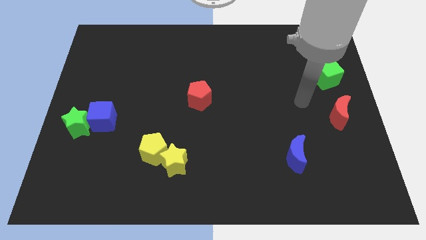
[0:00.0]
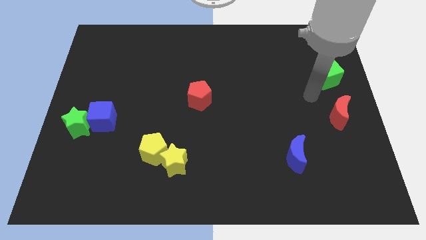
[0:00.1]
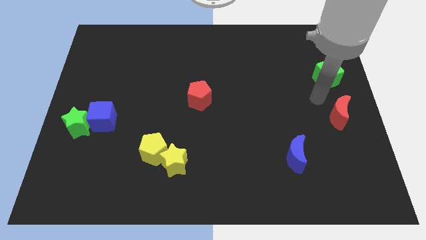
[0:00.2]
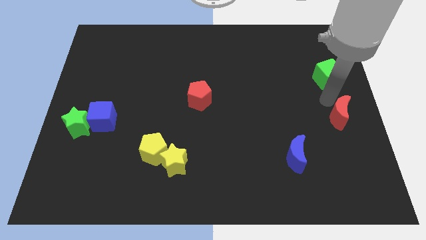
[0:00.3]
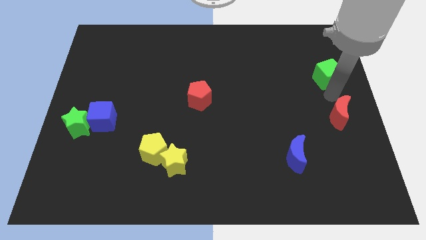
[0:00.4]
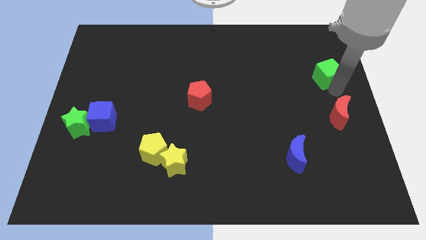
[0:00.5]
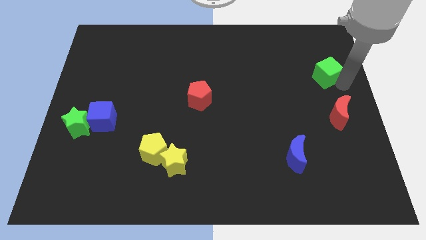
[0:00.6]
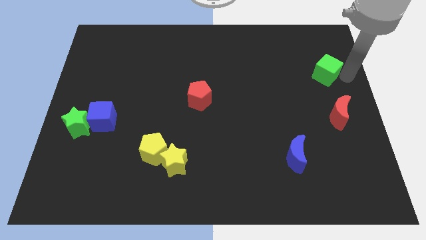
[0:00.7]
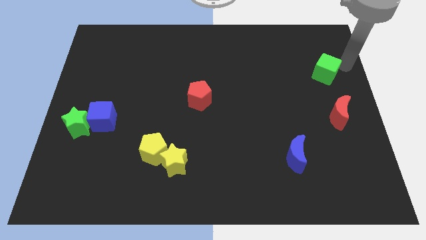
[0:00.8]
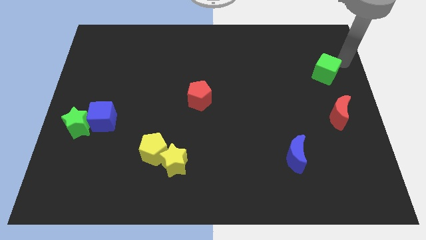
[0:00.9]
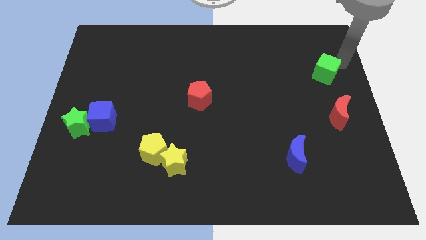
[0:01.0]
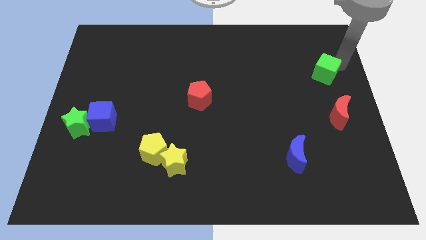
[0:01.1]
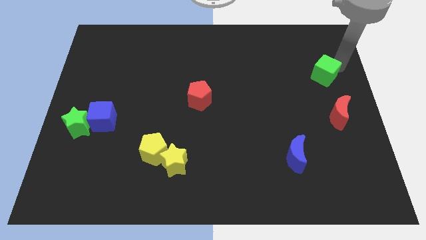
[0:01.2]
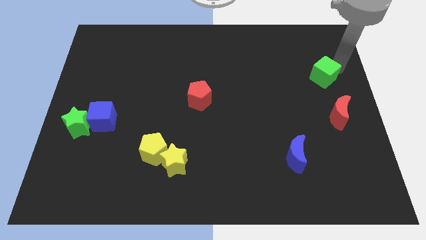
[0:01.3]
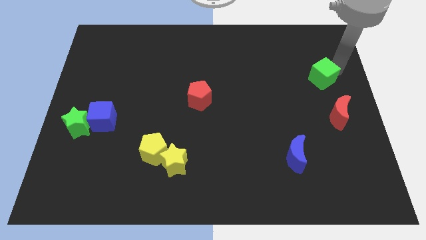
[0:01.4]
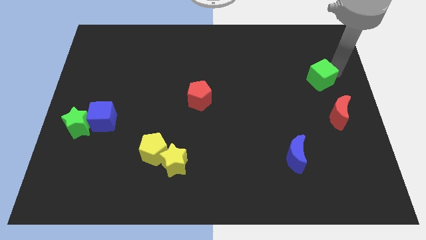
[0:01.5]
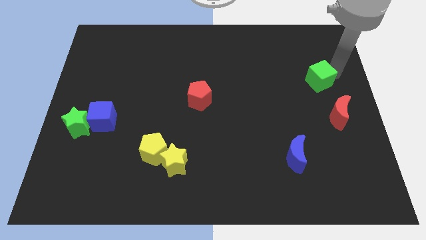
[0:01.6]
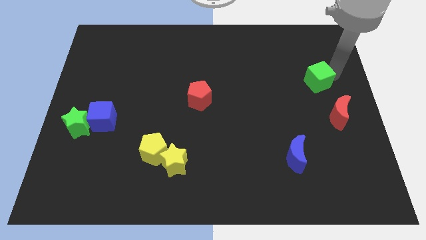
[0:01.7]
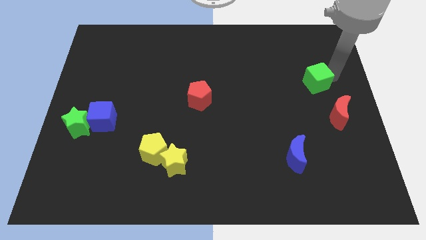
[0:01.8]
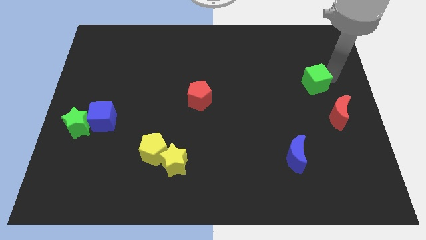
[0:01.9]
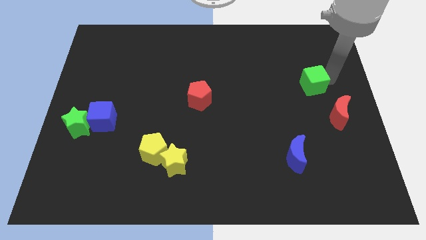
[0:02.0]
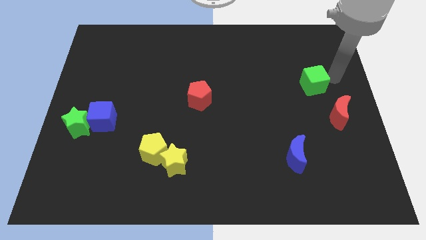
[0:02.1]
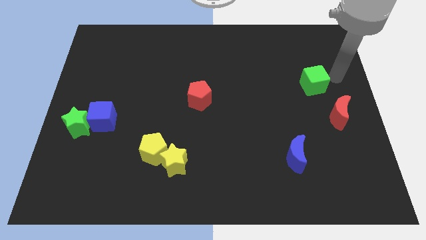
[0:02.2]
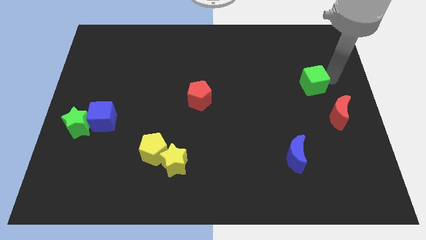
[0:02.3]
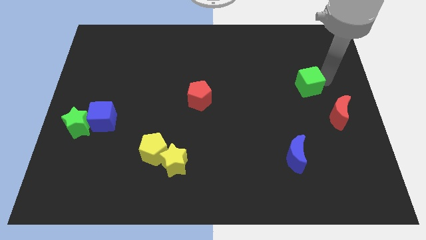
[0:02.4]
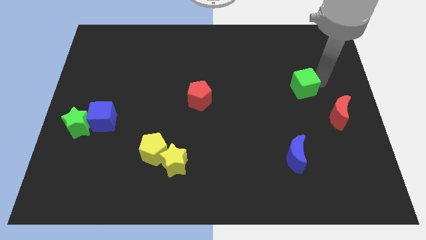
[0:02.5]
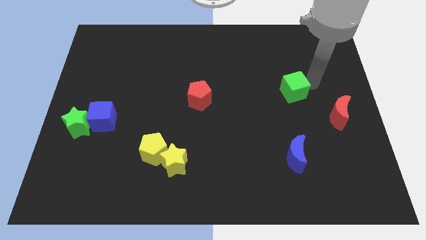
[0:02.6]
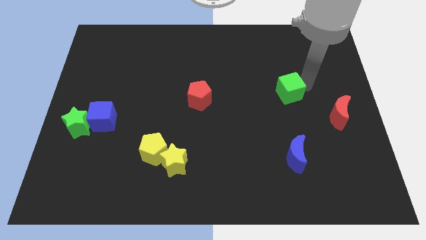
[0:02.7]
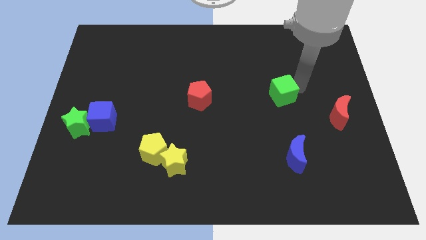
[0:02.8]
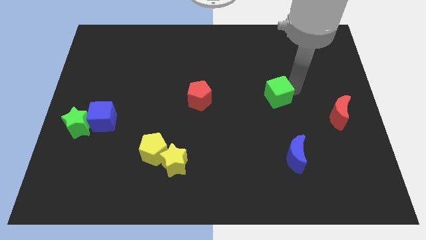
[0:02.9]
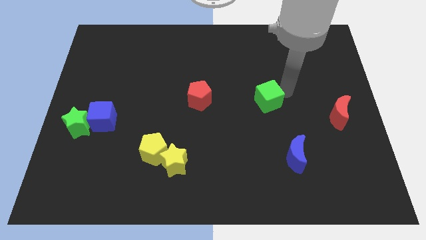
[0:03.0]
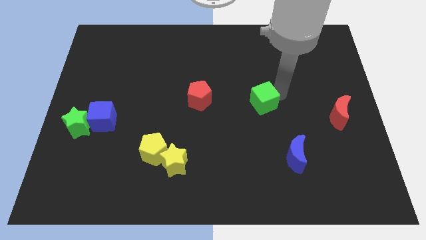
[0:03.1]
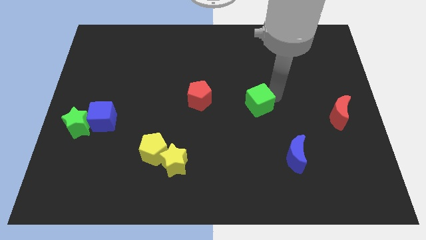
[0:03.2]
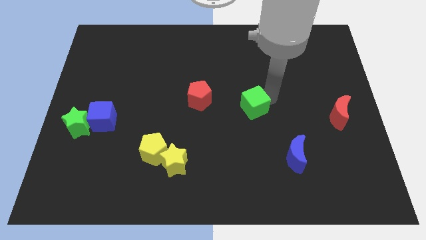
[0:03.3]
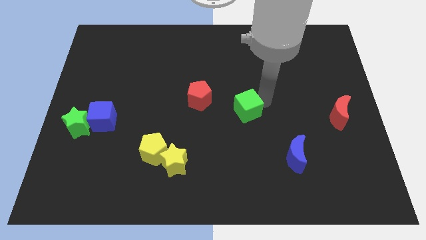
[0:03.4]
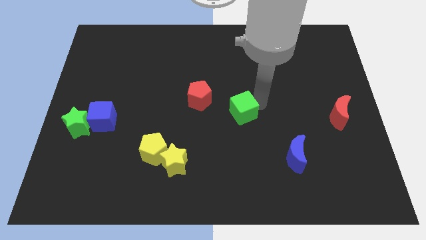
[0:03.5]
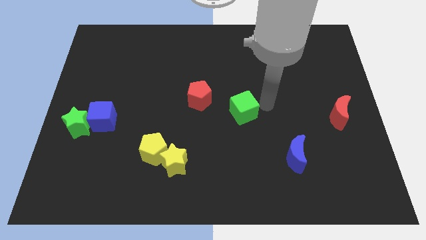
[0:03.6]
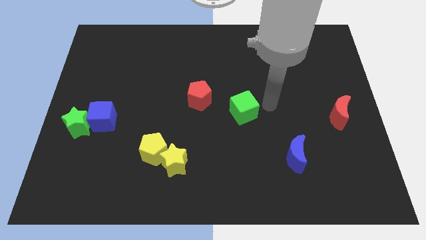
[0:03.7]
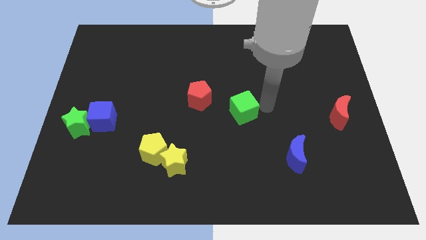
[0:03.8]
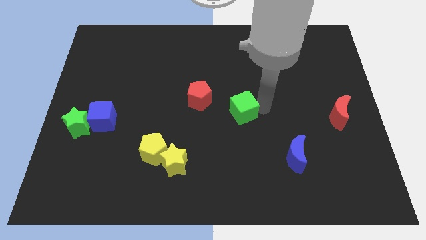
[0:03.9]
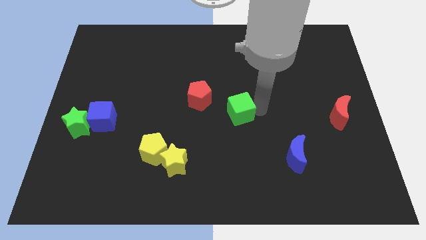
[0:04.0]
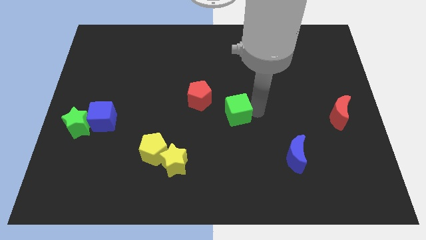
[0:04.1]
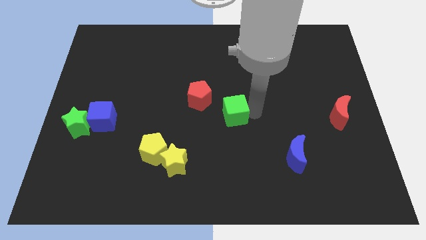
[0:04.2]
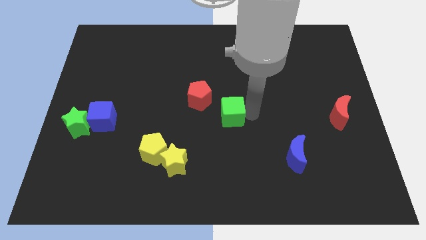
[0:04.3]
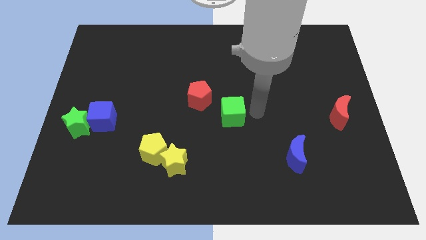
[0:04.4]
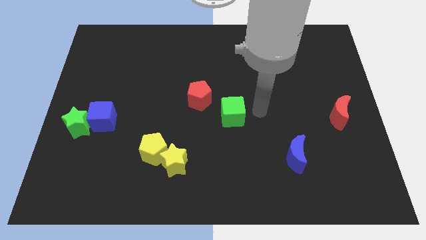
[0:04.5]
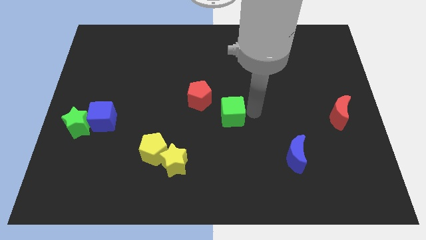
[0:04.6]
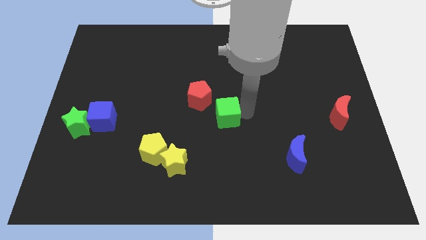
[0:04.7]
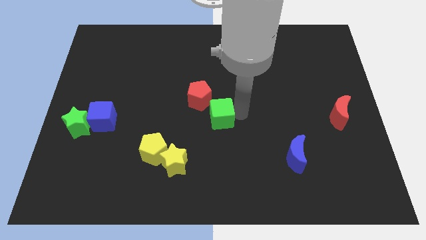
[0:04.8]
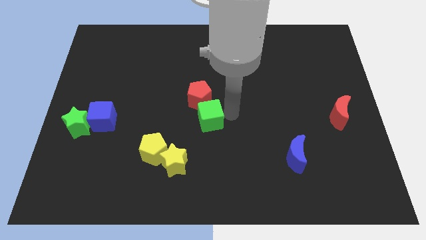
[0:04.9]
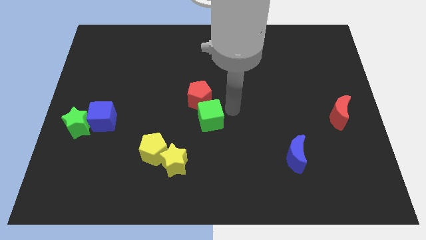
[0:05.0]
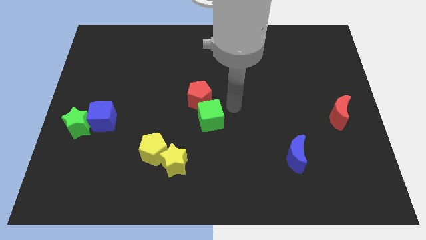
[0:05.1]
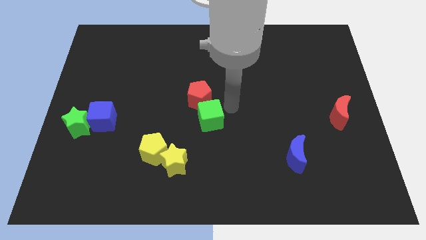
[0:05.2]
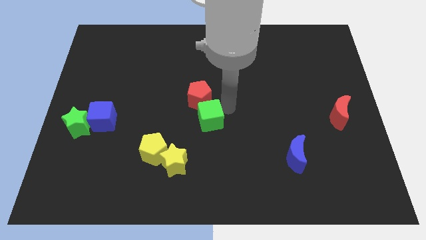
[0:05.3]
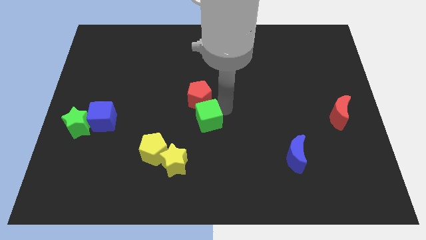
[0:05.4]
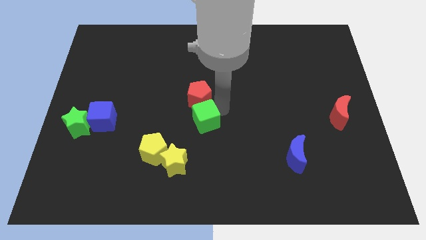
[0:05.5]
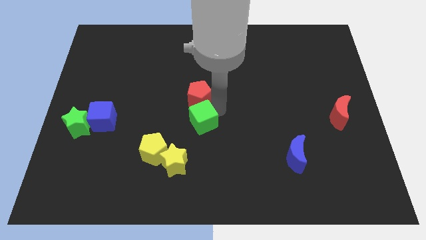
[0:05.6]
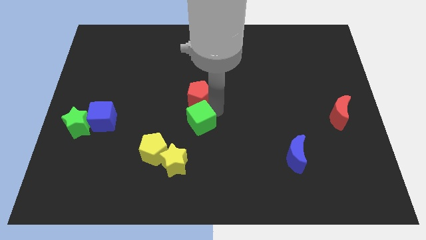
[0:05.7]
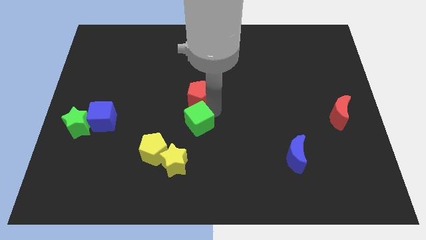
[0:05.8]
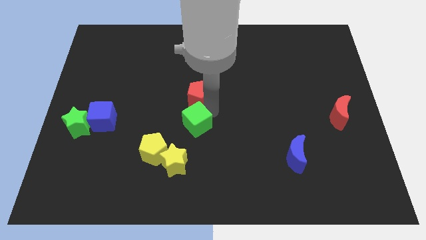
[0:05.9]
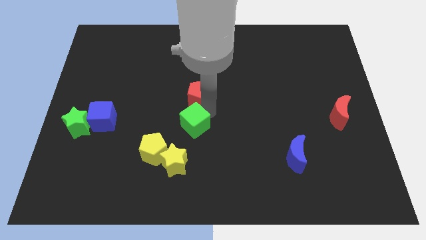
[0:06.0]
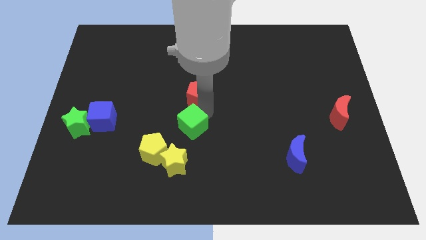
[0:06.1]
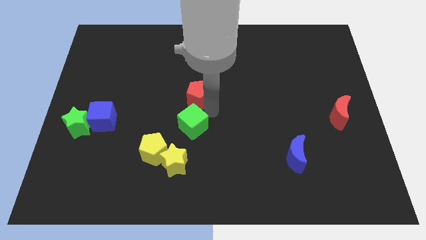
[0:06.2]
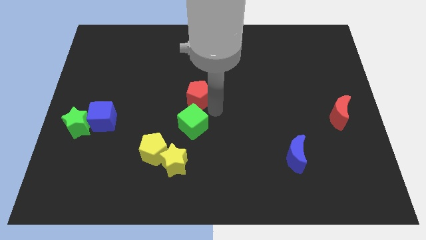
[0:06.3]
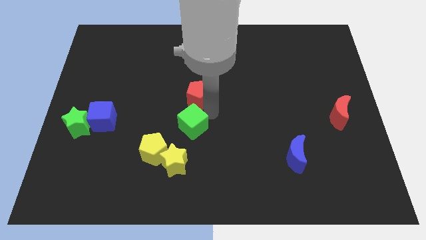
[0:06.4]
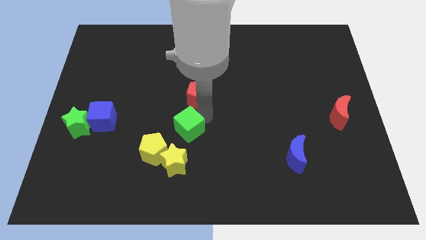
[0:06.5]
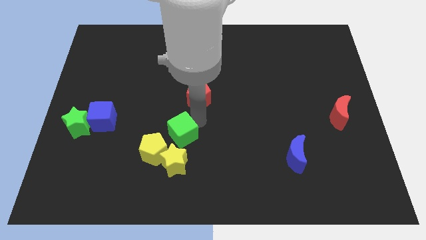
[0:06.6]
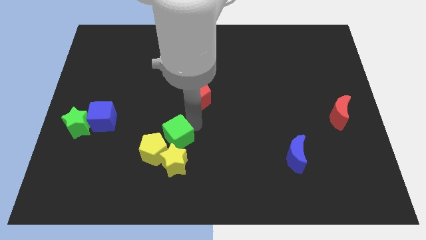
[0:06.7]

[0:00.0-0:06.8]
slide the green cube close to the yellow pentagon

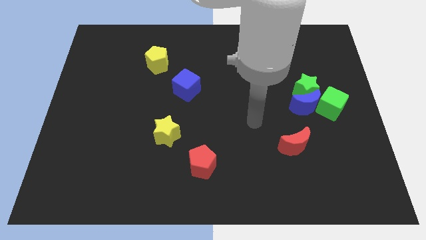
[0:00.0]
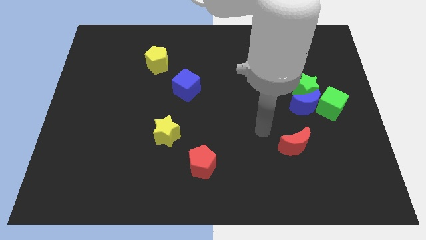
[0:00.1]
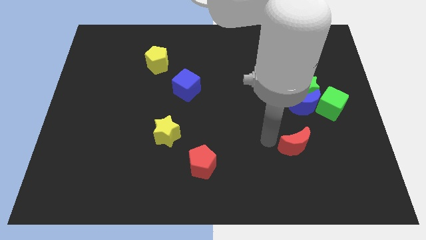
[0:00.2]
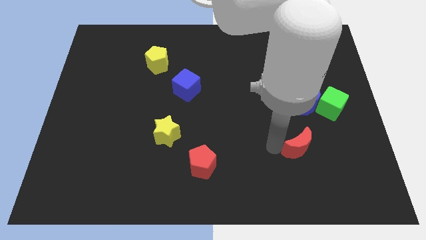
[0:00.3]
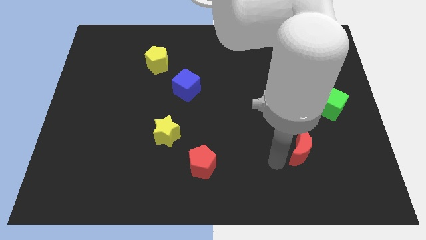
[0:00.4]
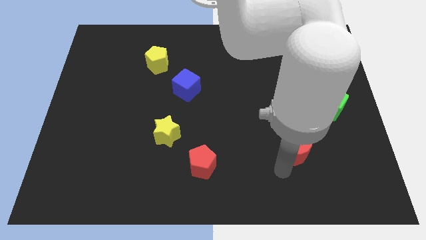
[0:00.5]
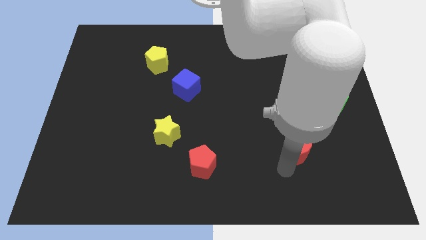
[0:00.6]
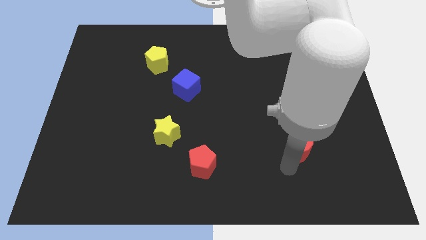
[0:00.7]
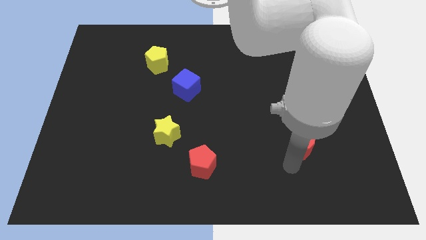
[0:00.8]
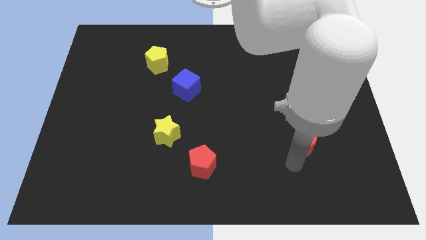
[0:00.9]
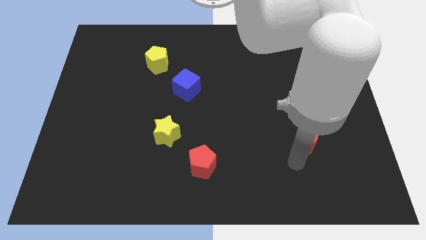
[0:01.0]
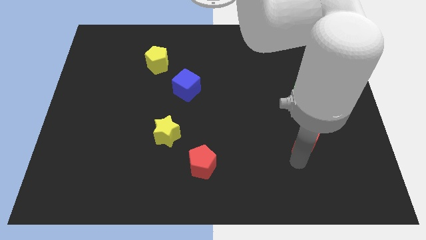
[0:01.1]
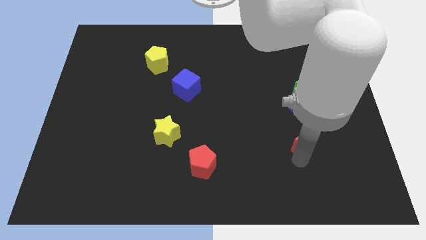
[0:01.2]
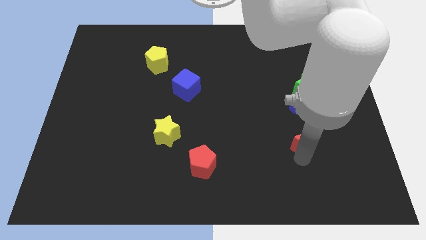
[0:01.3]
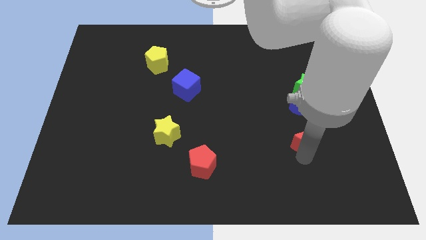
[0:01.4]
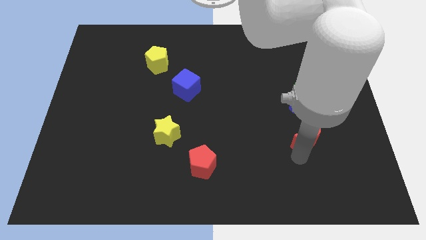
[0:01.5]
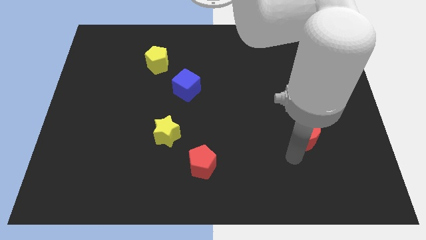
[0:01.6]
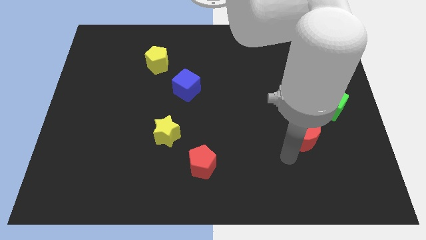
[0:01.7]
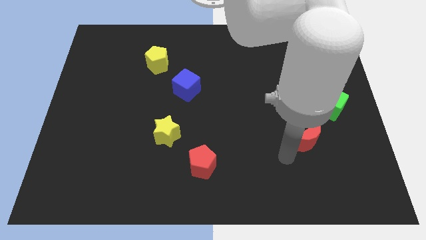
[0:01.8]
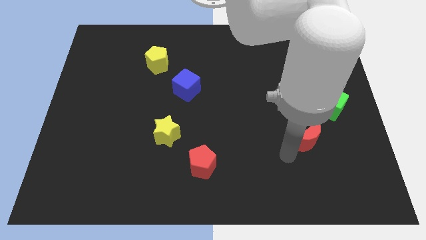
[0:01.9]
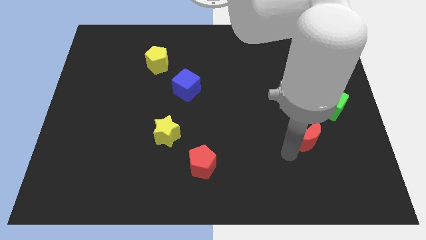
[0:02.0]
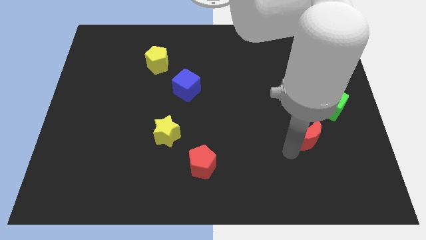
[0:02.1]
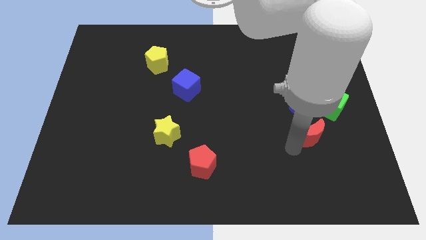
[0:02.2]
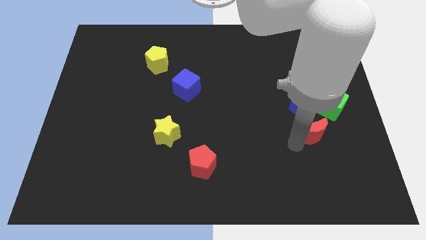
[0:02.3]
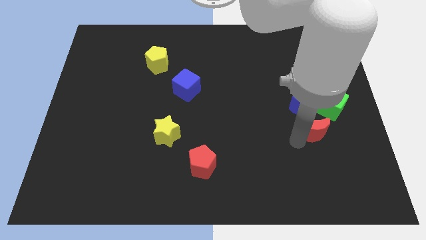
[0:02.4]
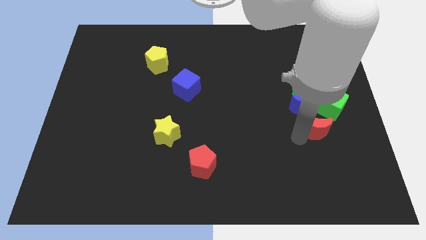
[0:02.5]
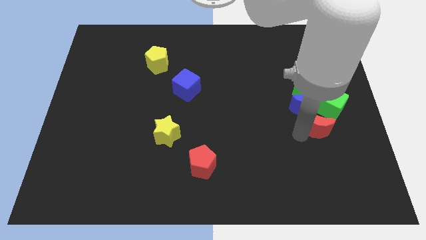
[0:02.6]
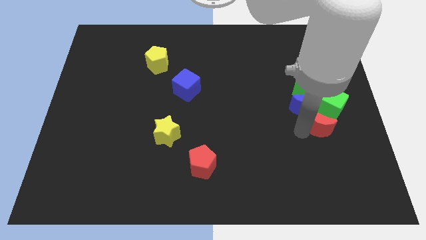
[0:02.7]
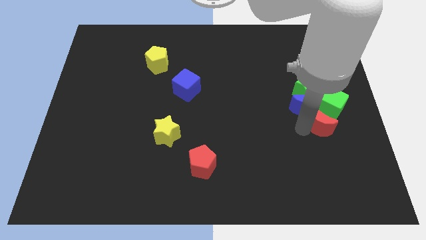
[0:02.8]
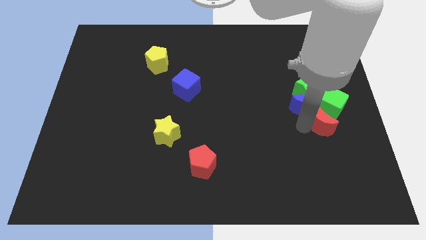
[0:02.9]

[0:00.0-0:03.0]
slide the red moon close to the green cube
